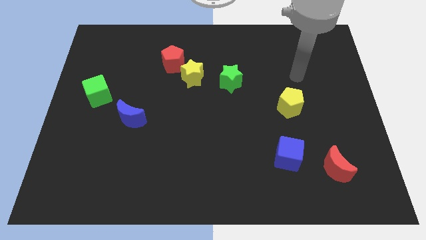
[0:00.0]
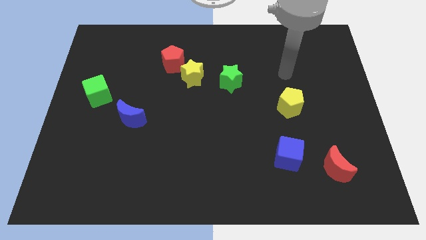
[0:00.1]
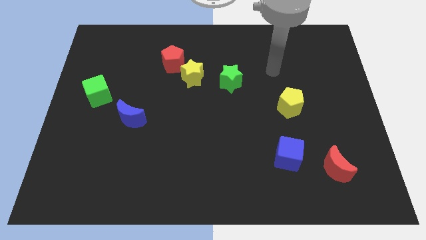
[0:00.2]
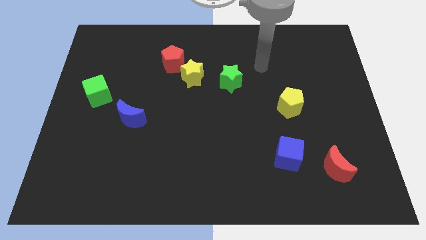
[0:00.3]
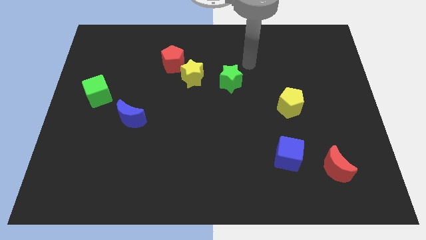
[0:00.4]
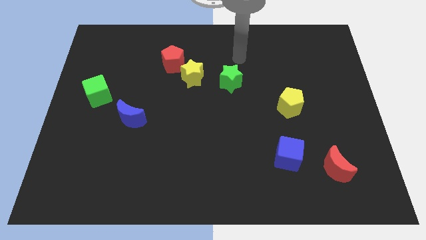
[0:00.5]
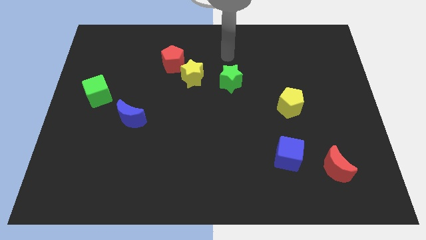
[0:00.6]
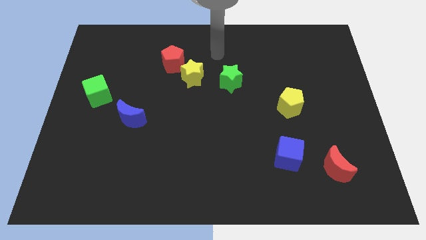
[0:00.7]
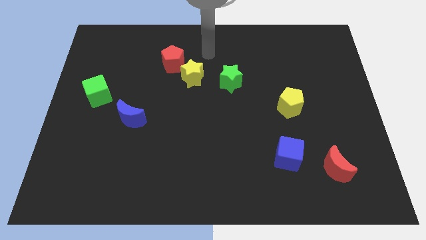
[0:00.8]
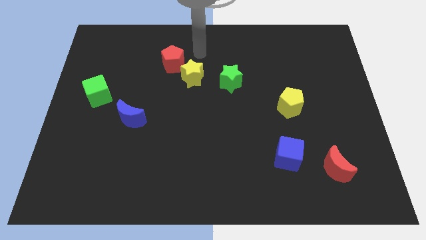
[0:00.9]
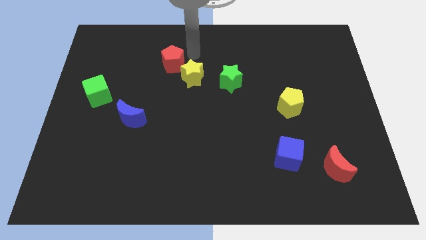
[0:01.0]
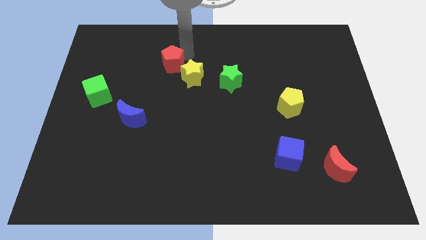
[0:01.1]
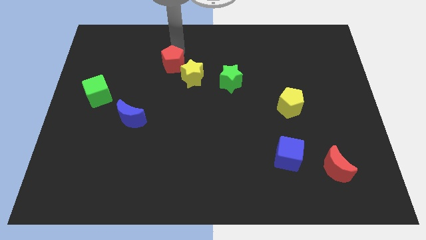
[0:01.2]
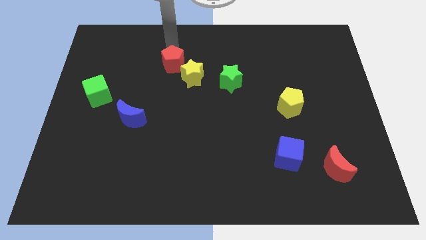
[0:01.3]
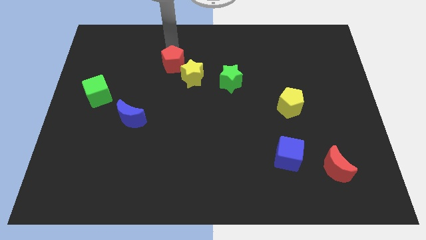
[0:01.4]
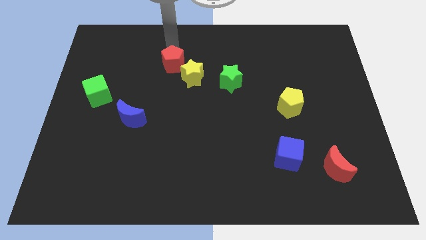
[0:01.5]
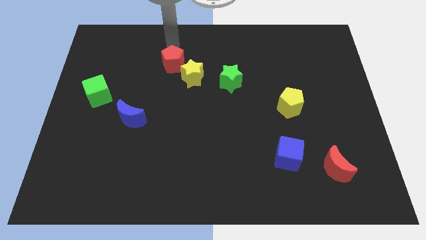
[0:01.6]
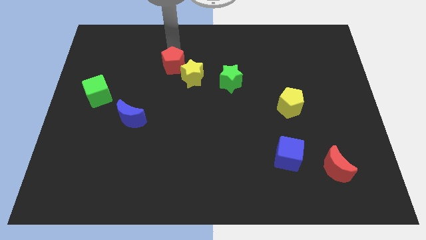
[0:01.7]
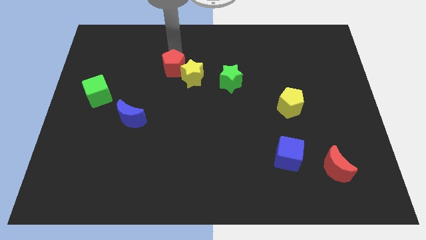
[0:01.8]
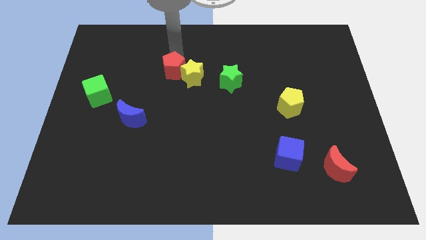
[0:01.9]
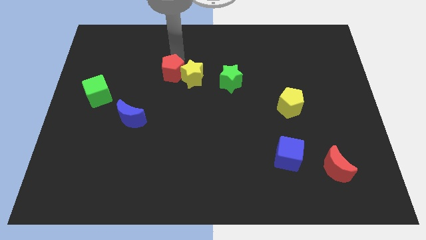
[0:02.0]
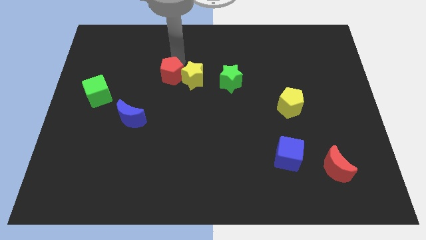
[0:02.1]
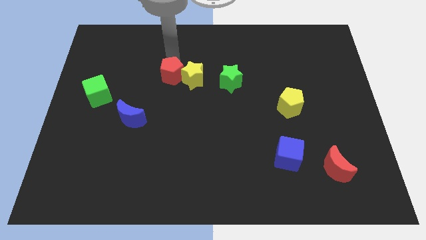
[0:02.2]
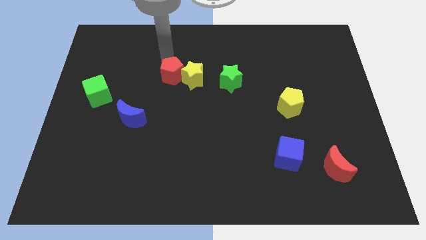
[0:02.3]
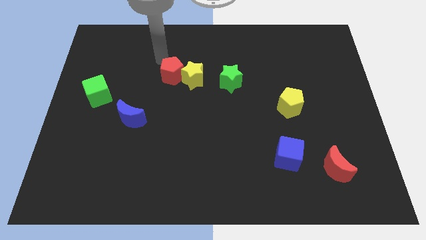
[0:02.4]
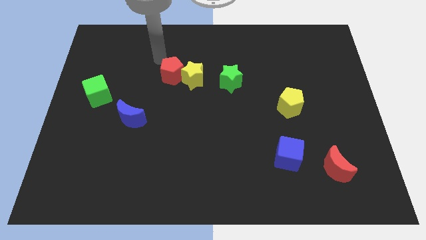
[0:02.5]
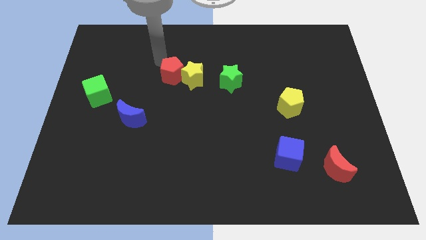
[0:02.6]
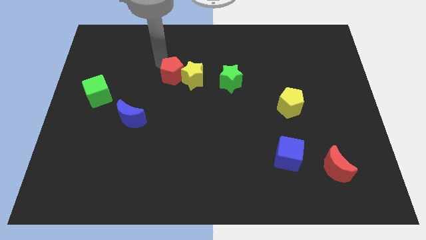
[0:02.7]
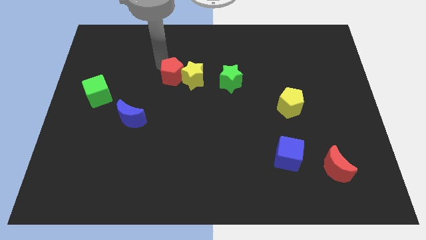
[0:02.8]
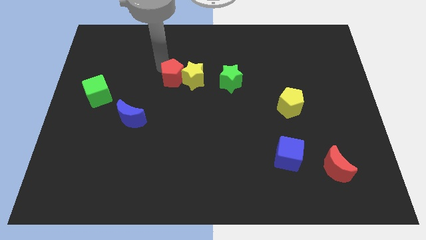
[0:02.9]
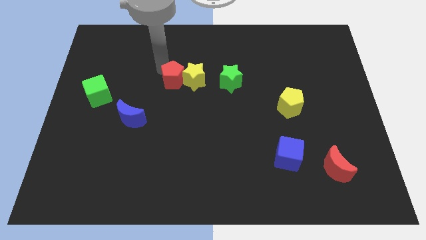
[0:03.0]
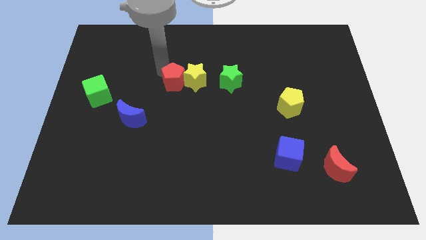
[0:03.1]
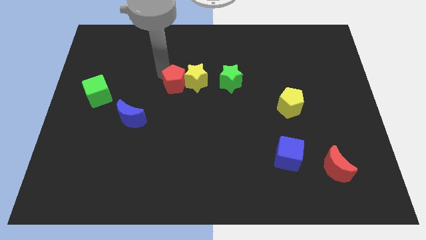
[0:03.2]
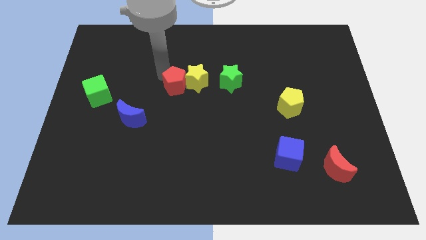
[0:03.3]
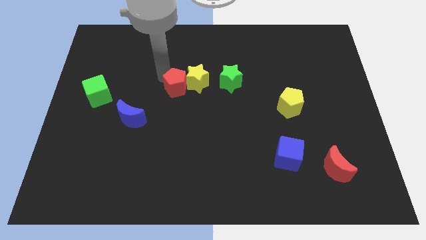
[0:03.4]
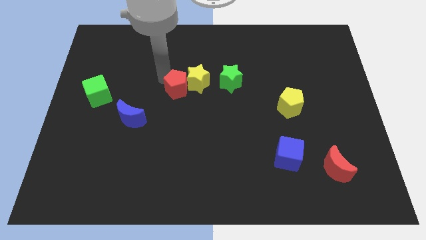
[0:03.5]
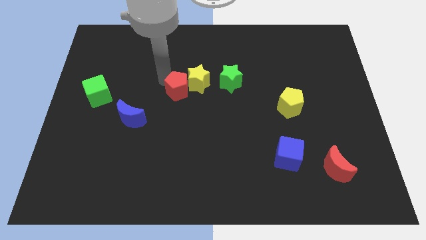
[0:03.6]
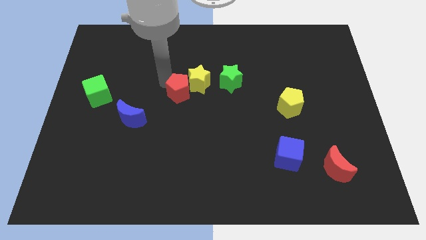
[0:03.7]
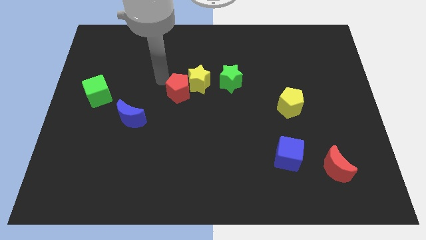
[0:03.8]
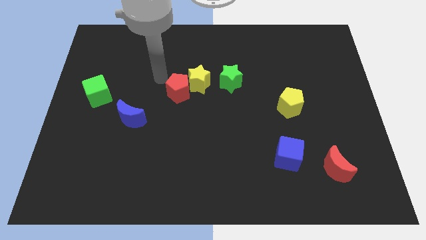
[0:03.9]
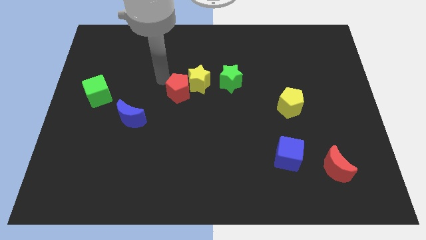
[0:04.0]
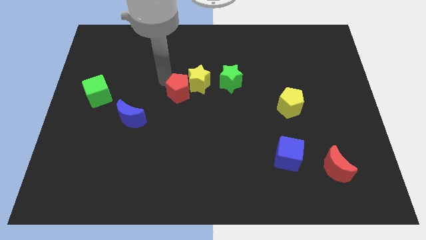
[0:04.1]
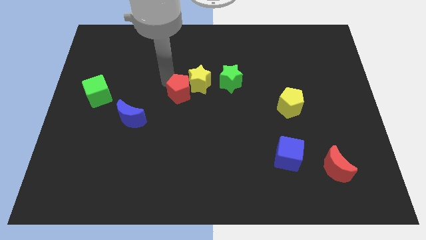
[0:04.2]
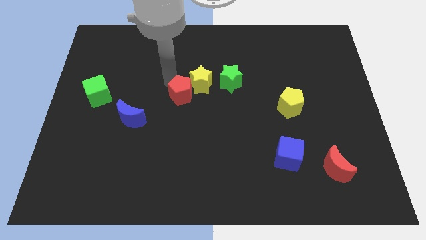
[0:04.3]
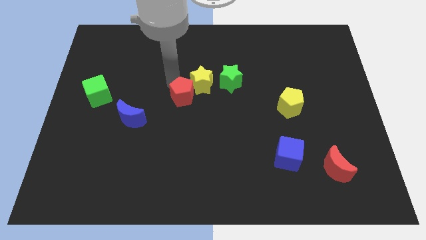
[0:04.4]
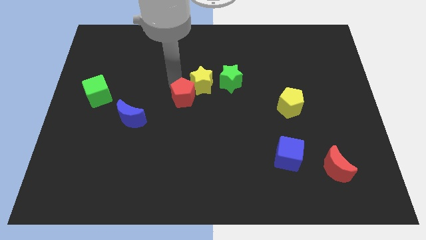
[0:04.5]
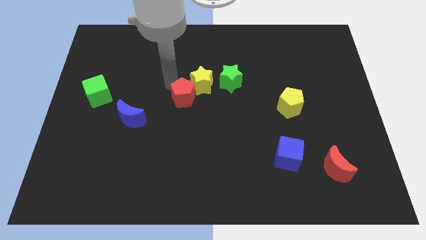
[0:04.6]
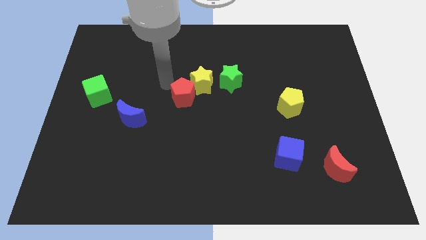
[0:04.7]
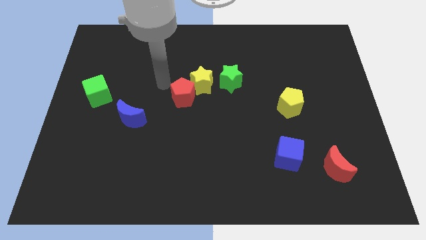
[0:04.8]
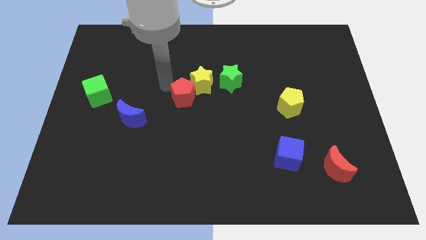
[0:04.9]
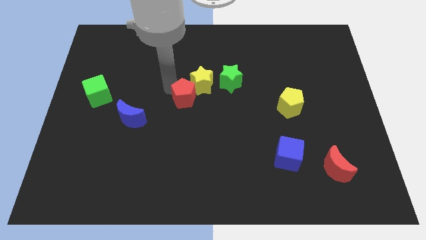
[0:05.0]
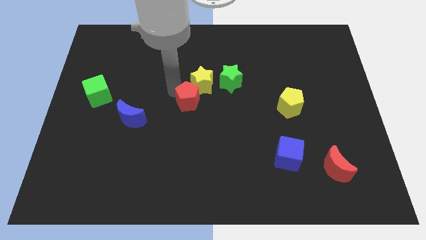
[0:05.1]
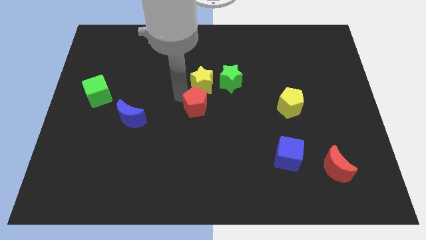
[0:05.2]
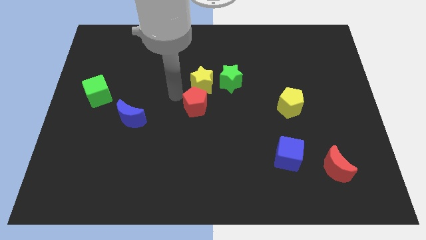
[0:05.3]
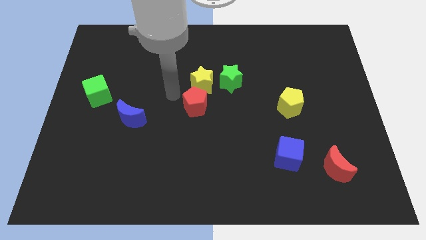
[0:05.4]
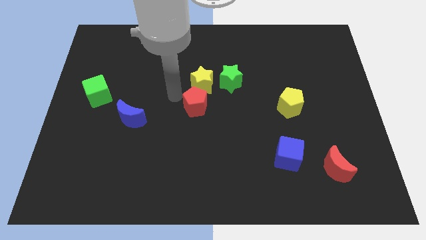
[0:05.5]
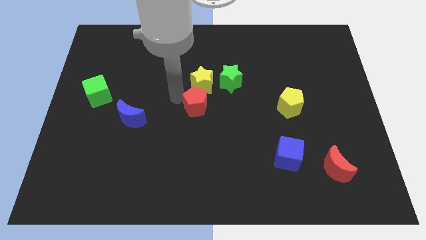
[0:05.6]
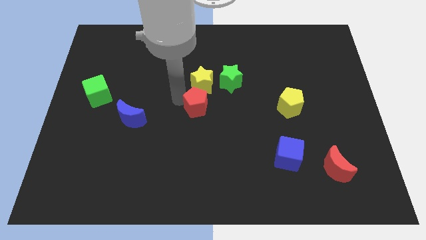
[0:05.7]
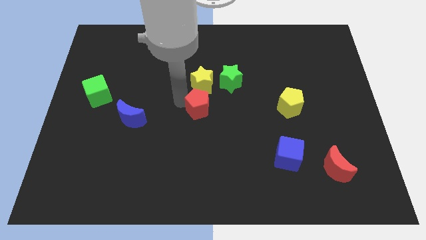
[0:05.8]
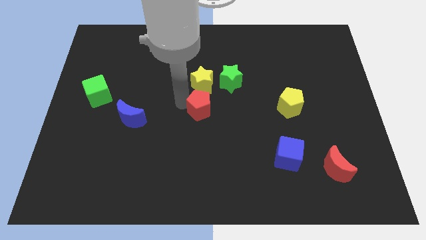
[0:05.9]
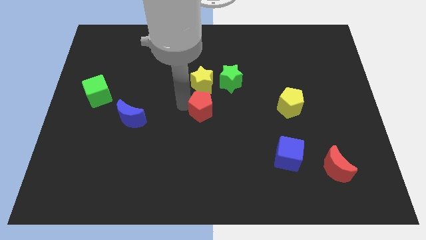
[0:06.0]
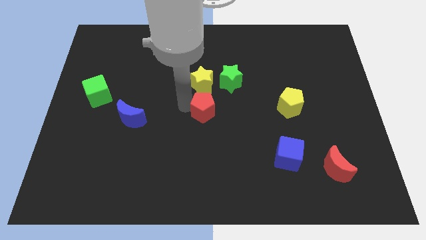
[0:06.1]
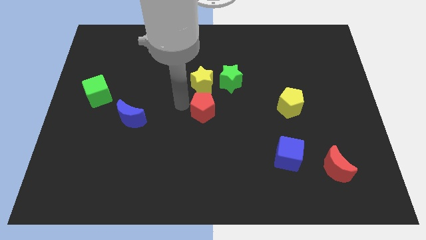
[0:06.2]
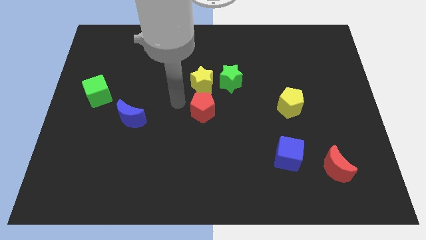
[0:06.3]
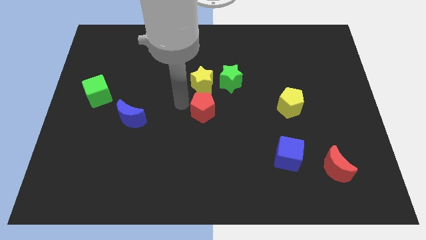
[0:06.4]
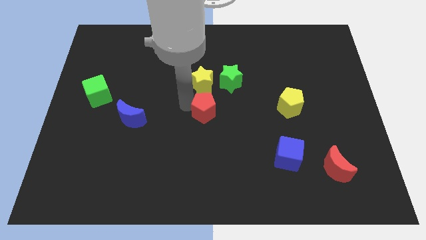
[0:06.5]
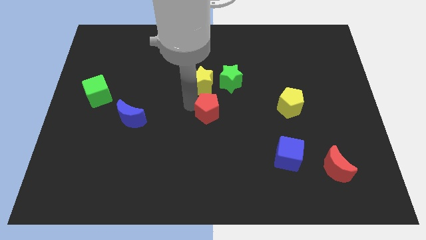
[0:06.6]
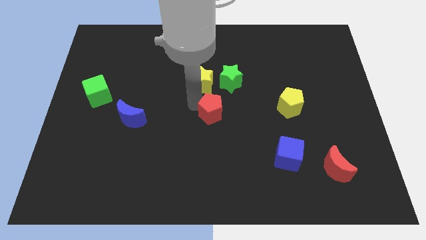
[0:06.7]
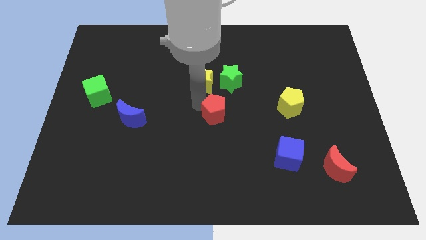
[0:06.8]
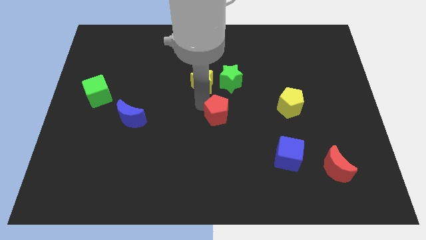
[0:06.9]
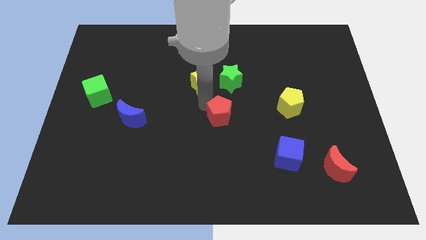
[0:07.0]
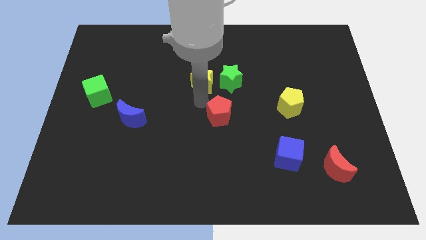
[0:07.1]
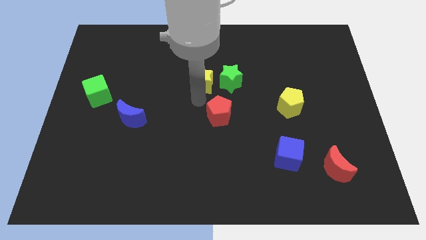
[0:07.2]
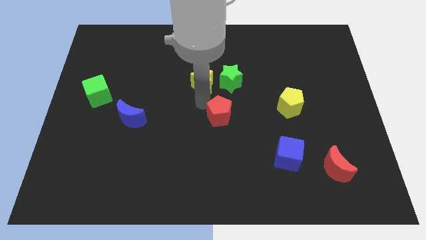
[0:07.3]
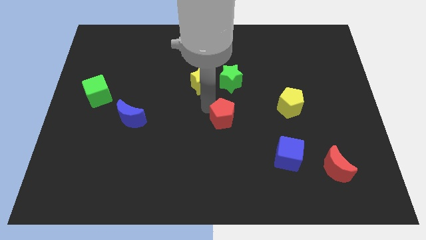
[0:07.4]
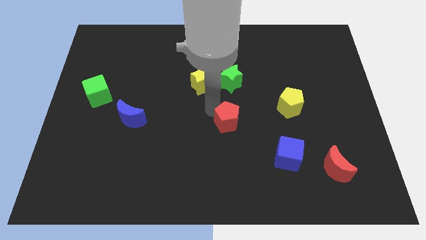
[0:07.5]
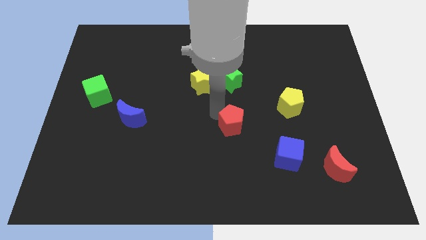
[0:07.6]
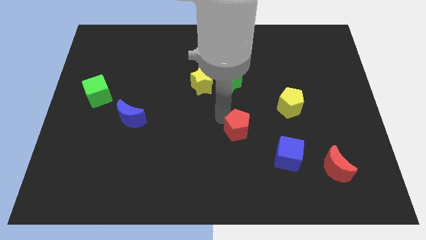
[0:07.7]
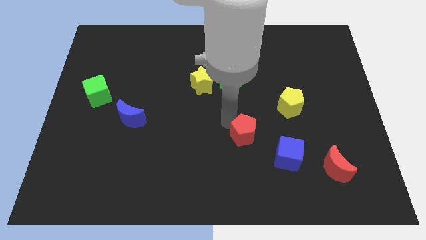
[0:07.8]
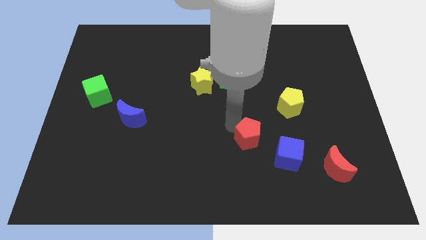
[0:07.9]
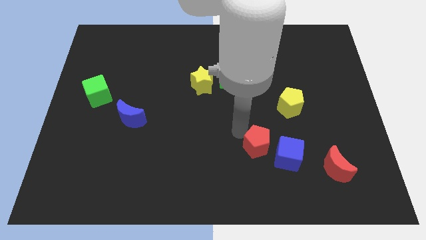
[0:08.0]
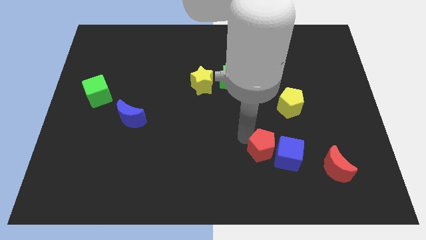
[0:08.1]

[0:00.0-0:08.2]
put the red pentagon to the blue cube
